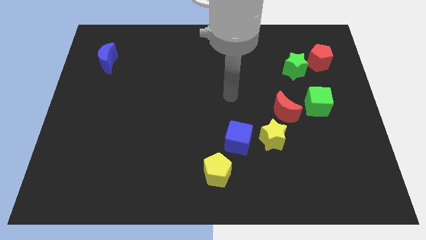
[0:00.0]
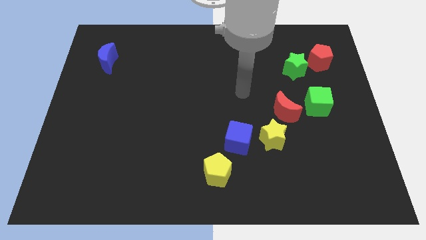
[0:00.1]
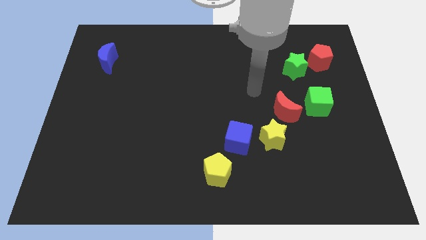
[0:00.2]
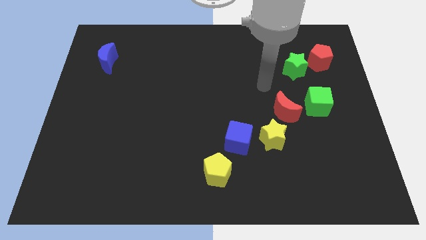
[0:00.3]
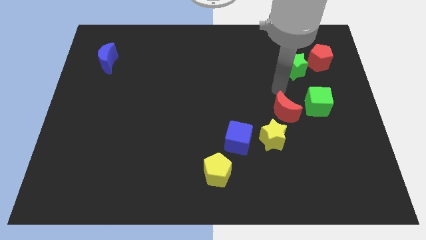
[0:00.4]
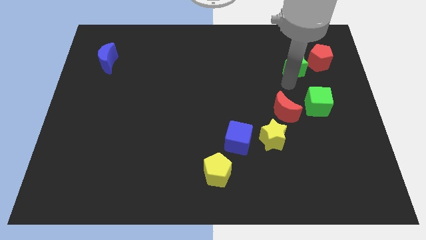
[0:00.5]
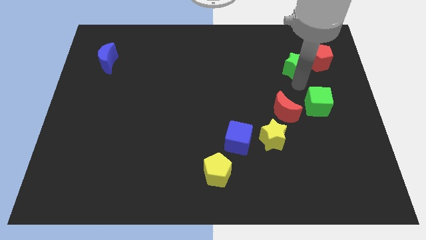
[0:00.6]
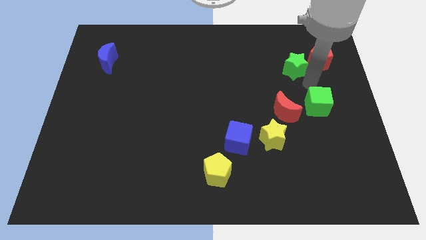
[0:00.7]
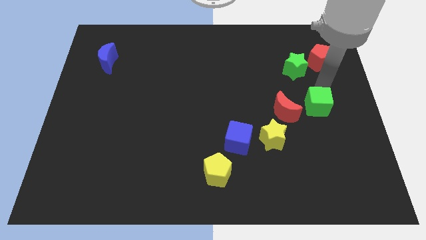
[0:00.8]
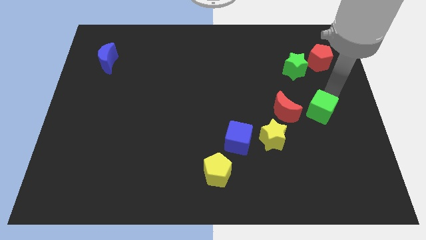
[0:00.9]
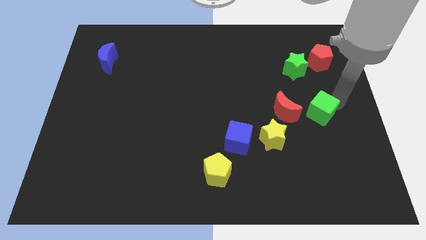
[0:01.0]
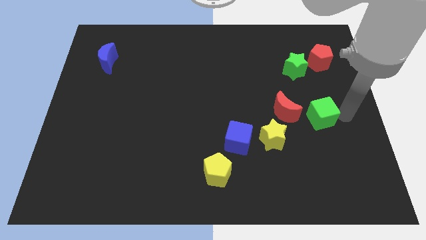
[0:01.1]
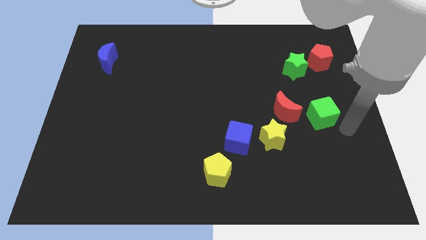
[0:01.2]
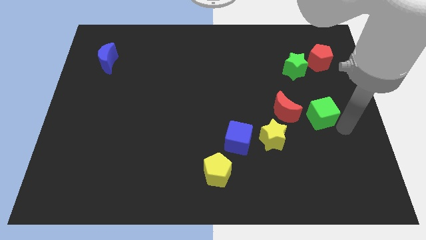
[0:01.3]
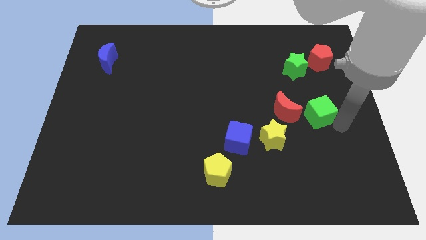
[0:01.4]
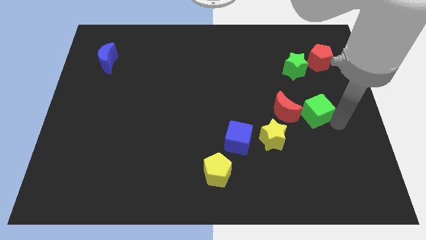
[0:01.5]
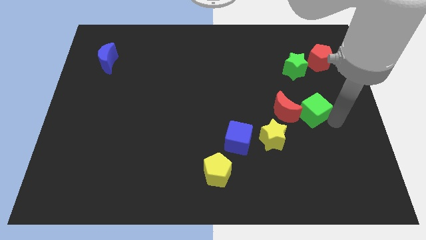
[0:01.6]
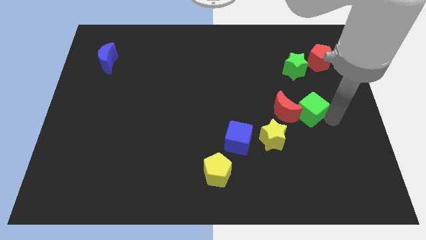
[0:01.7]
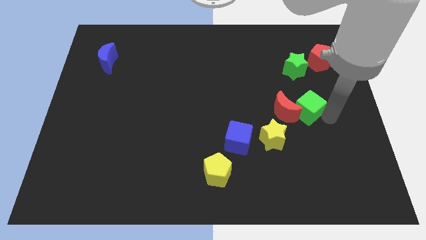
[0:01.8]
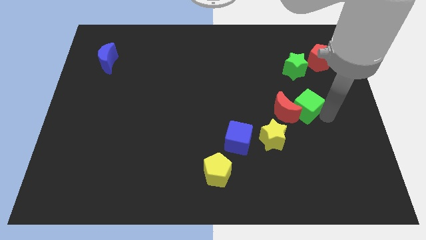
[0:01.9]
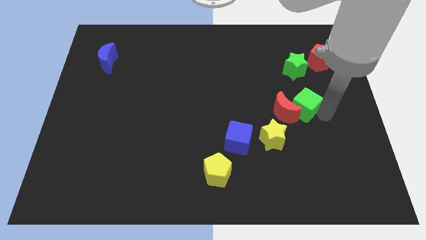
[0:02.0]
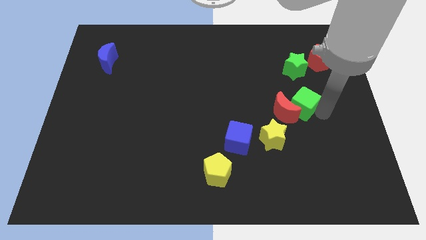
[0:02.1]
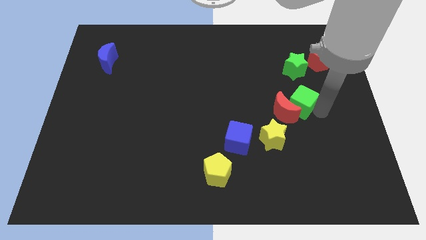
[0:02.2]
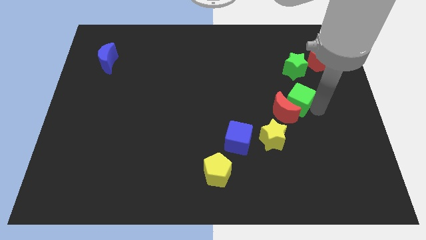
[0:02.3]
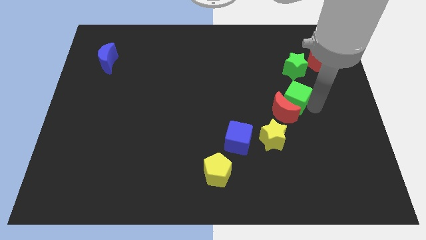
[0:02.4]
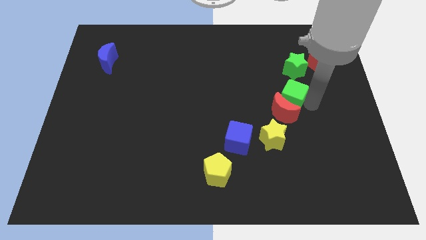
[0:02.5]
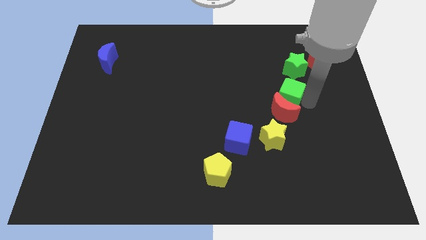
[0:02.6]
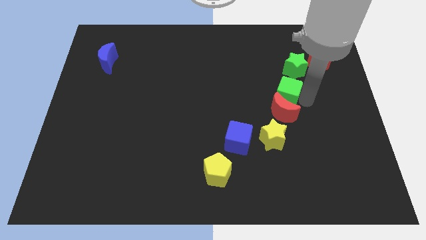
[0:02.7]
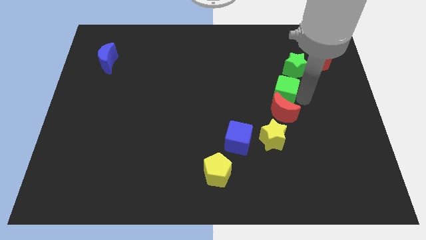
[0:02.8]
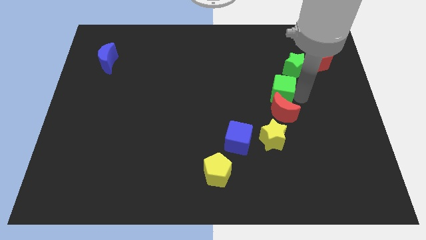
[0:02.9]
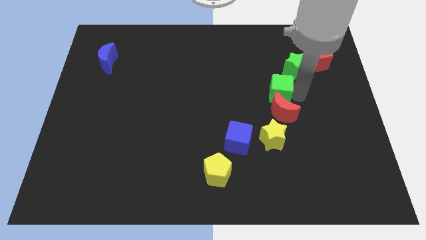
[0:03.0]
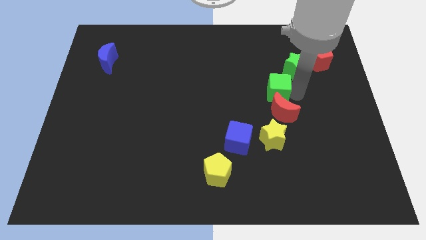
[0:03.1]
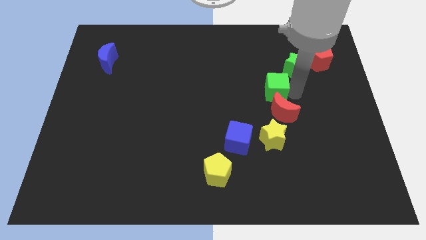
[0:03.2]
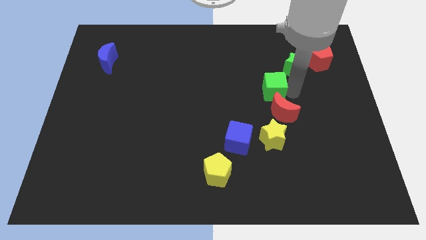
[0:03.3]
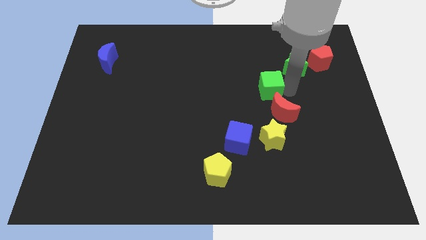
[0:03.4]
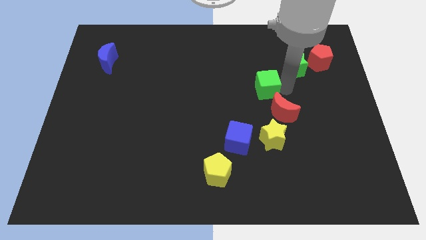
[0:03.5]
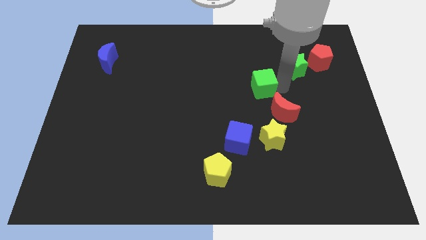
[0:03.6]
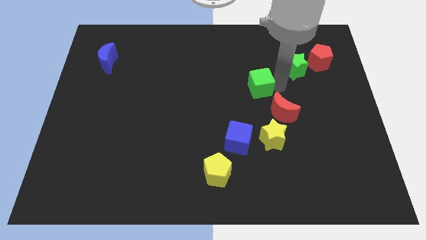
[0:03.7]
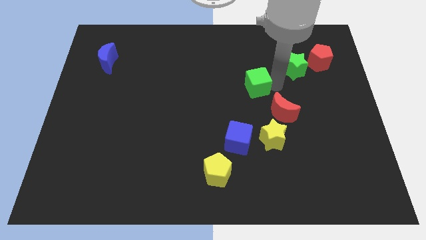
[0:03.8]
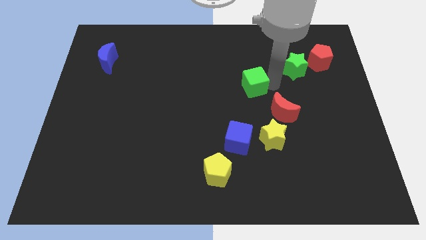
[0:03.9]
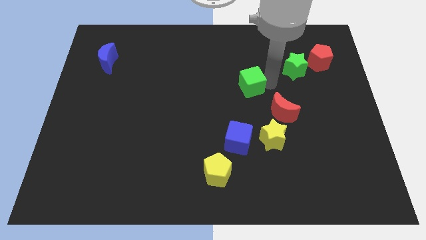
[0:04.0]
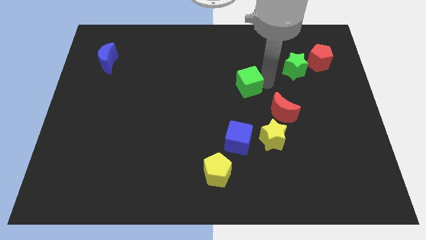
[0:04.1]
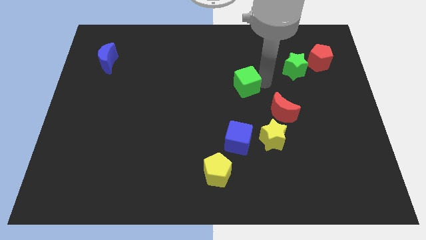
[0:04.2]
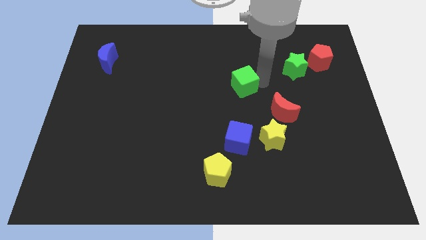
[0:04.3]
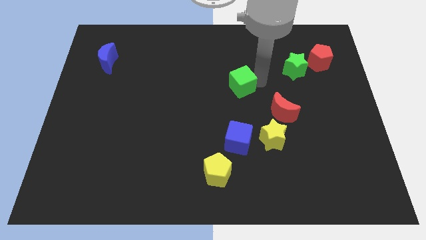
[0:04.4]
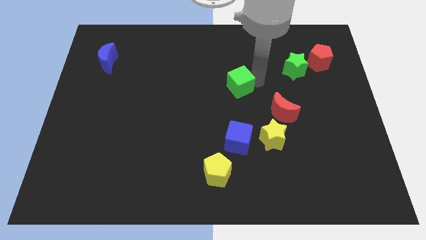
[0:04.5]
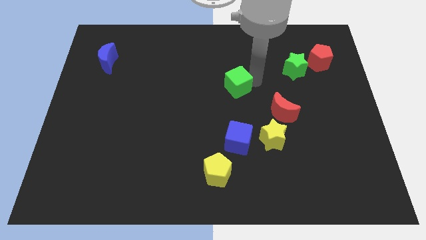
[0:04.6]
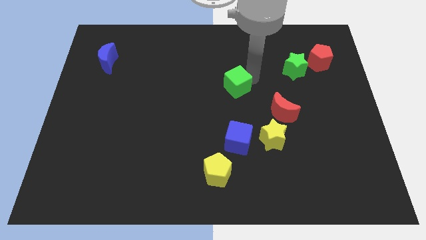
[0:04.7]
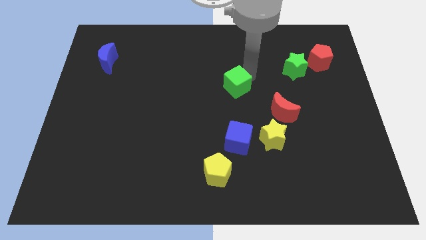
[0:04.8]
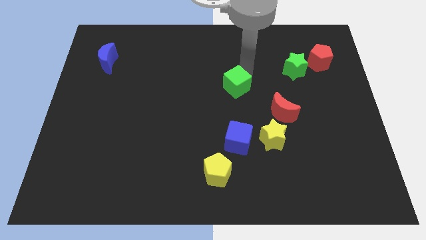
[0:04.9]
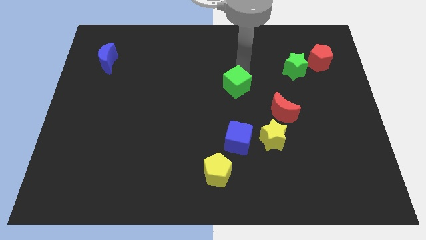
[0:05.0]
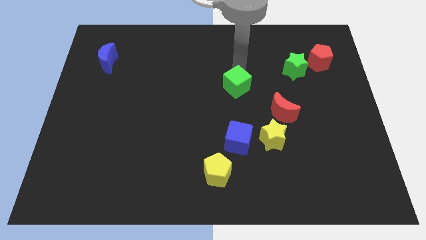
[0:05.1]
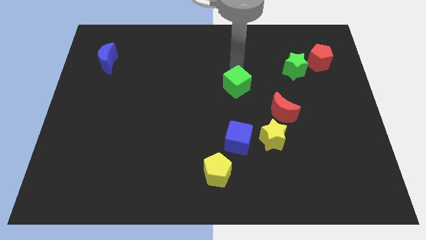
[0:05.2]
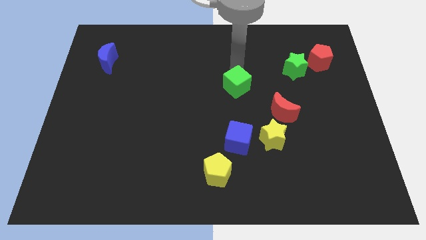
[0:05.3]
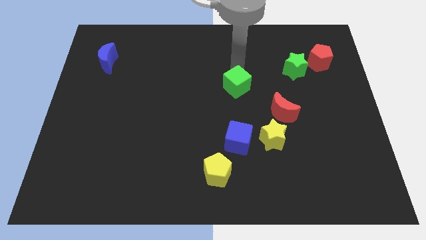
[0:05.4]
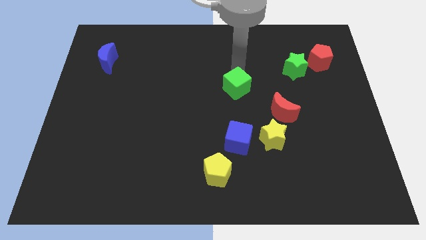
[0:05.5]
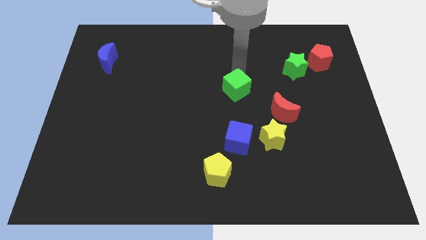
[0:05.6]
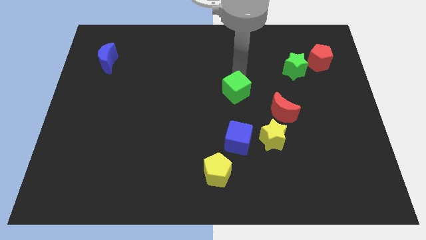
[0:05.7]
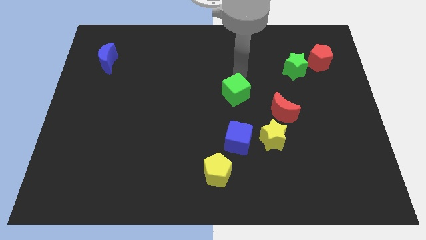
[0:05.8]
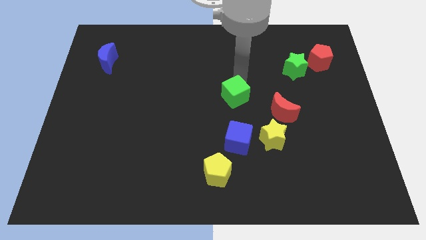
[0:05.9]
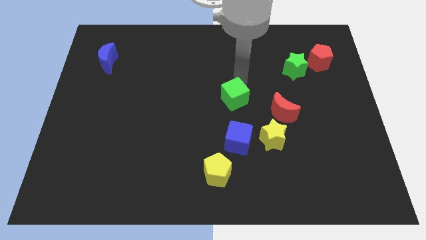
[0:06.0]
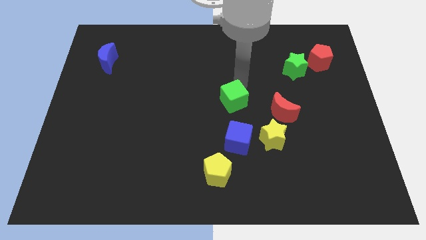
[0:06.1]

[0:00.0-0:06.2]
slide the green cube left

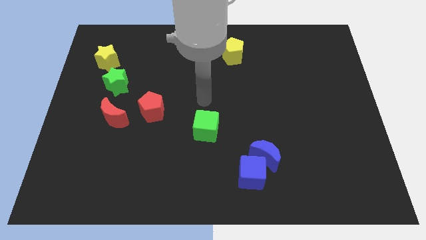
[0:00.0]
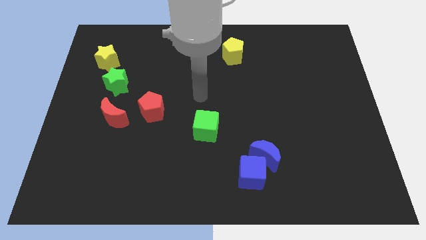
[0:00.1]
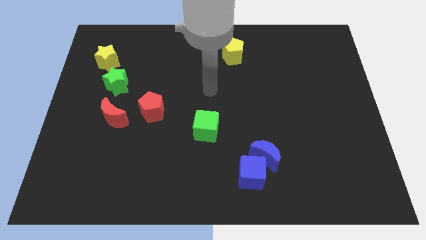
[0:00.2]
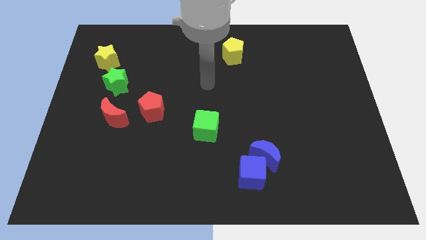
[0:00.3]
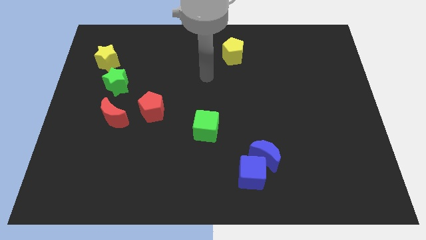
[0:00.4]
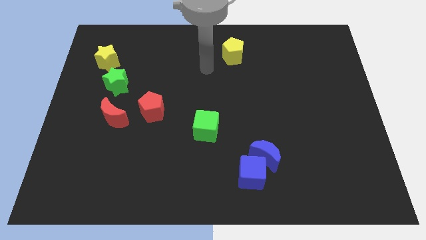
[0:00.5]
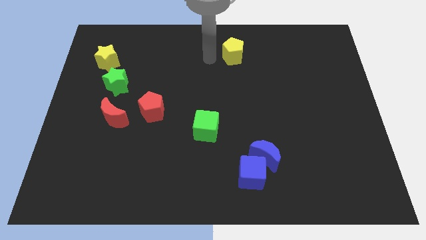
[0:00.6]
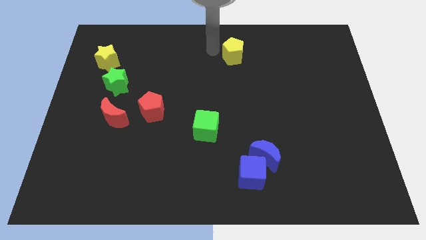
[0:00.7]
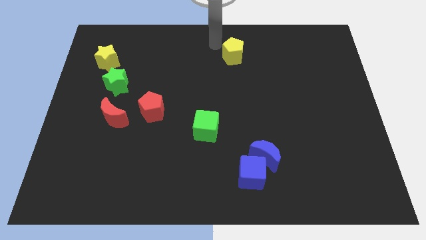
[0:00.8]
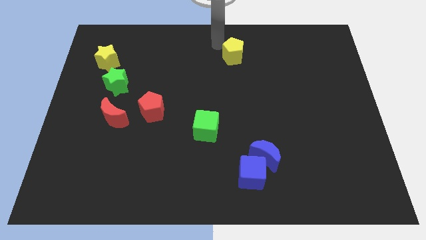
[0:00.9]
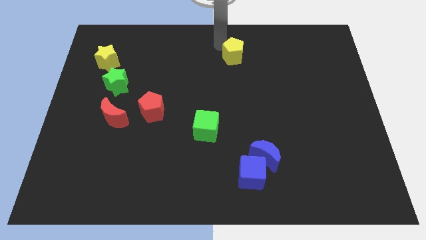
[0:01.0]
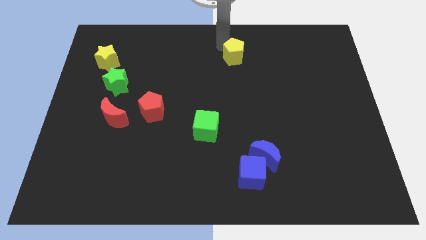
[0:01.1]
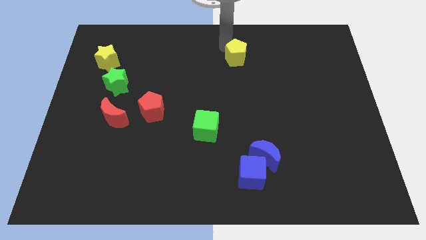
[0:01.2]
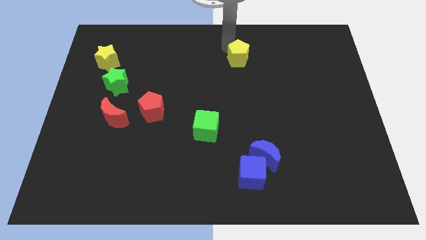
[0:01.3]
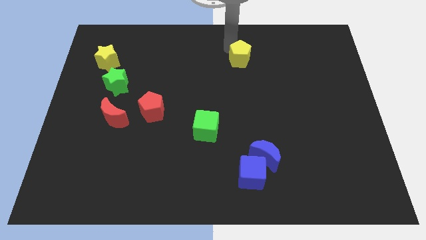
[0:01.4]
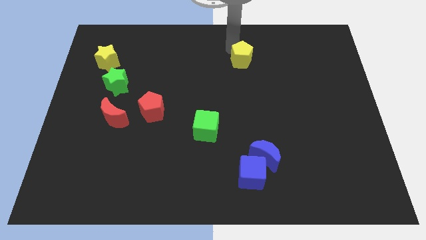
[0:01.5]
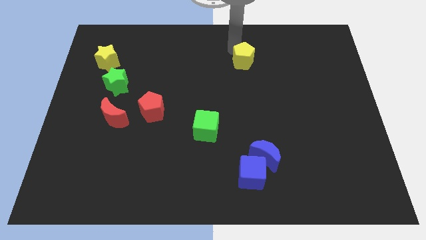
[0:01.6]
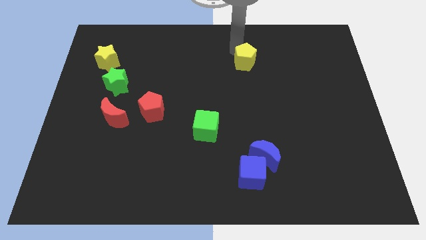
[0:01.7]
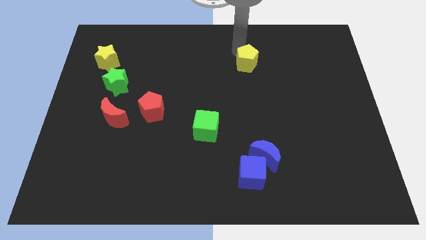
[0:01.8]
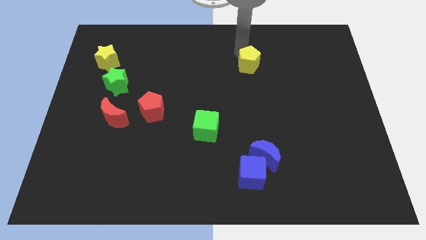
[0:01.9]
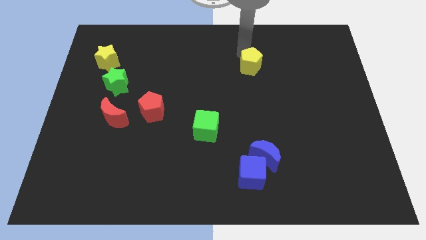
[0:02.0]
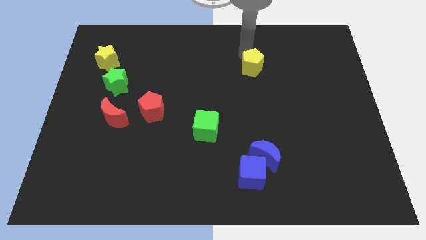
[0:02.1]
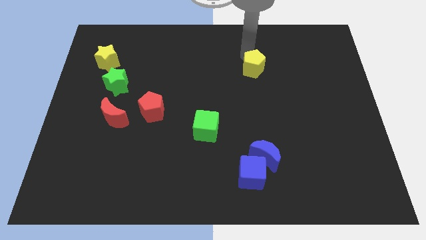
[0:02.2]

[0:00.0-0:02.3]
push the yellow pentagon somewhat down and right
